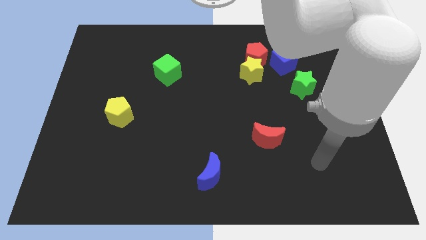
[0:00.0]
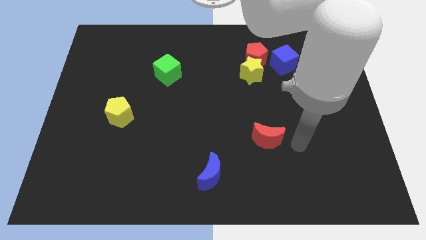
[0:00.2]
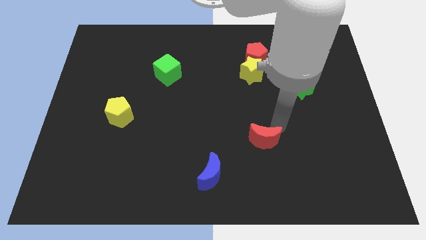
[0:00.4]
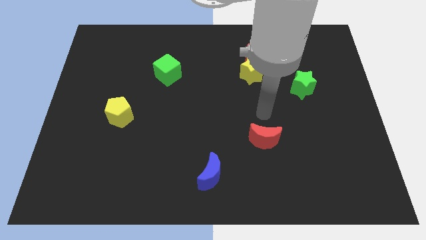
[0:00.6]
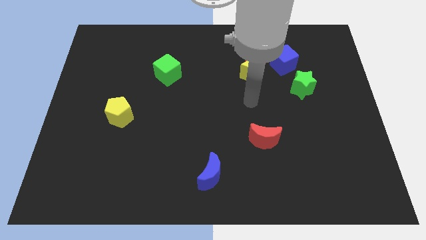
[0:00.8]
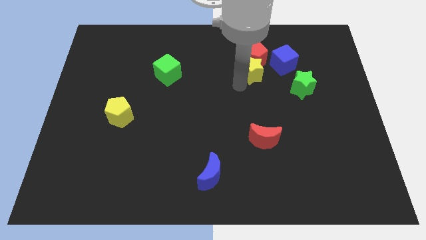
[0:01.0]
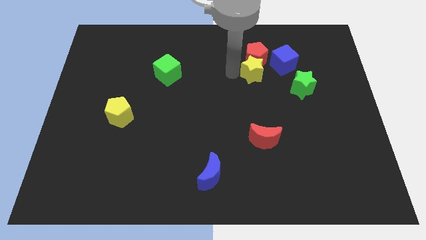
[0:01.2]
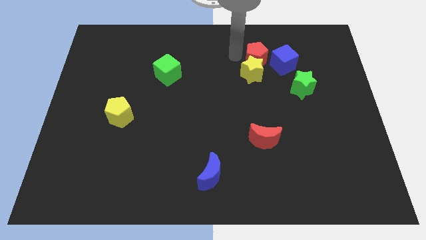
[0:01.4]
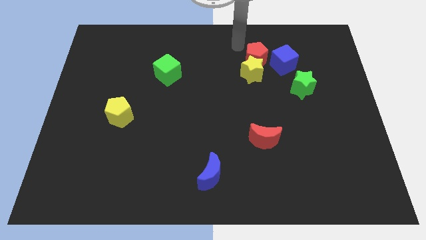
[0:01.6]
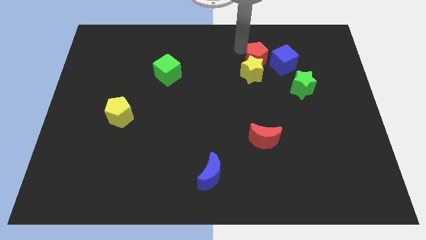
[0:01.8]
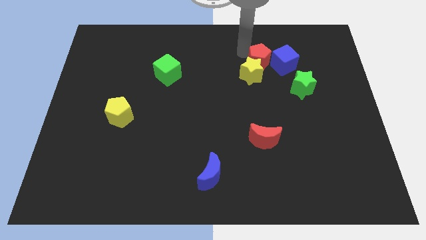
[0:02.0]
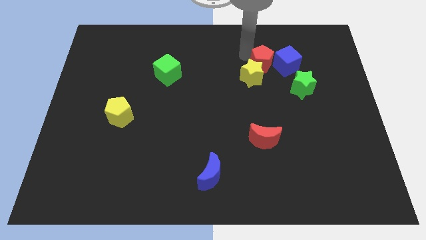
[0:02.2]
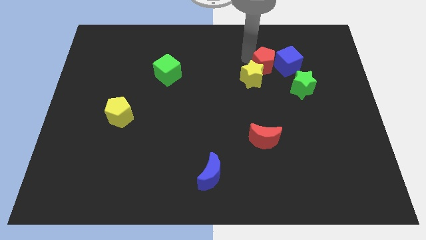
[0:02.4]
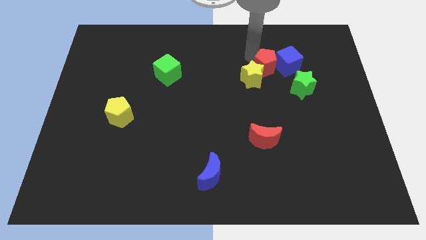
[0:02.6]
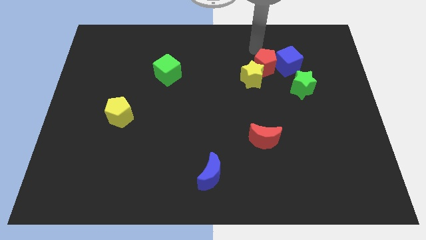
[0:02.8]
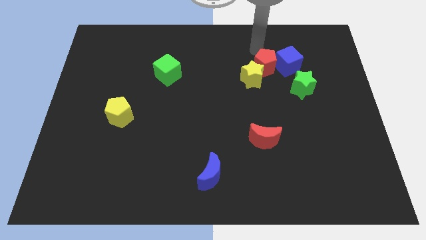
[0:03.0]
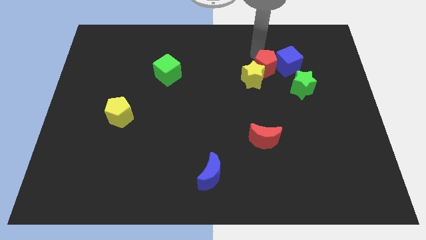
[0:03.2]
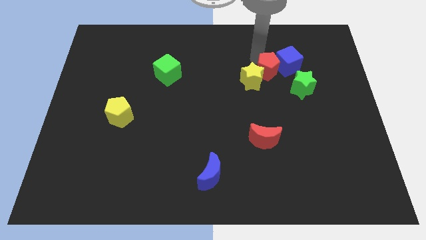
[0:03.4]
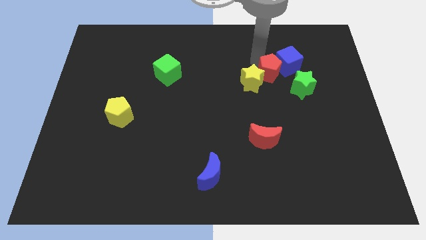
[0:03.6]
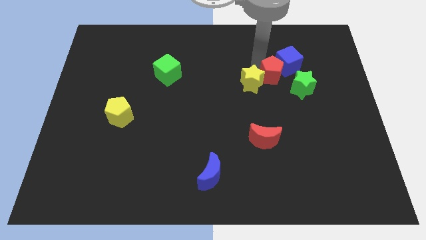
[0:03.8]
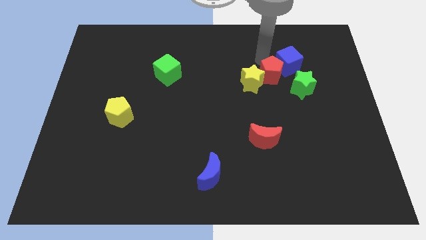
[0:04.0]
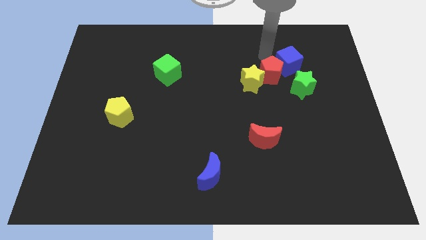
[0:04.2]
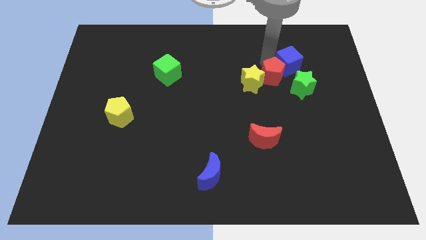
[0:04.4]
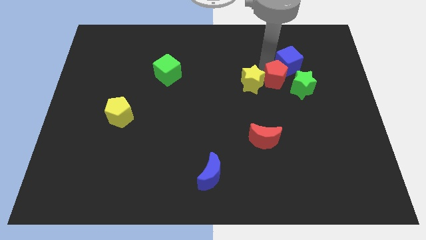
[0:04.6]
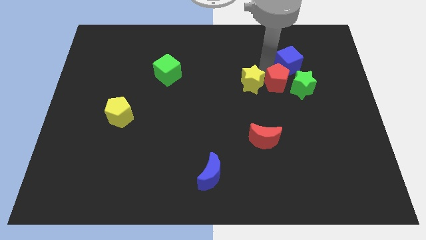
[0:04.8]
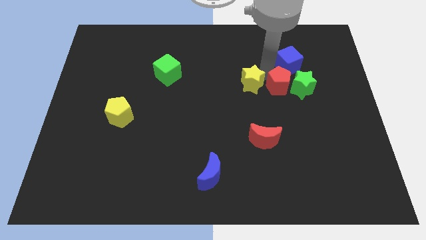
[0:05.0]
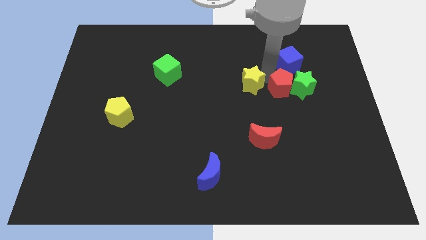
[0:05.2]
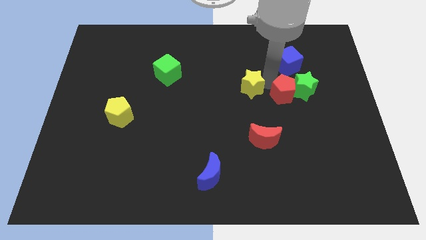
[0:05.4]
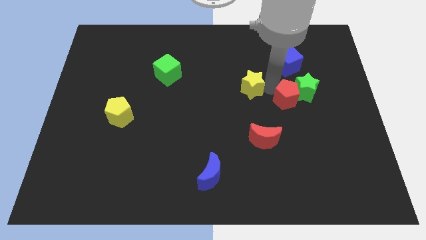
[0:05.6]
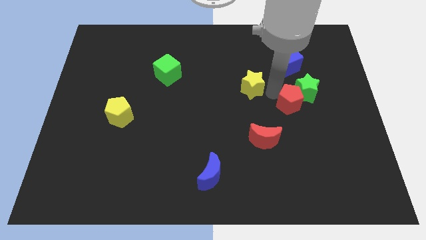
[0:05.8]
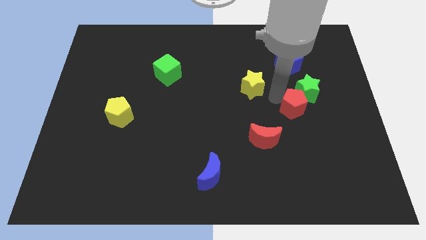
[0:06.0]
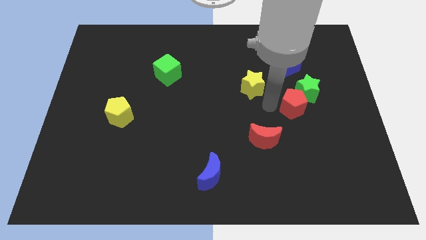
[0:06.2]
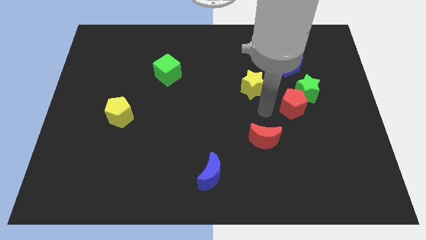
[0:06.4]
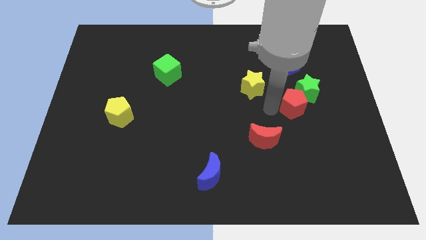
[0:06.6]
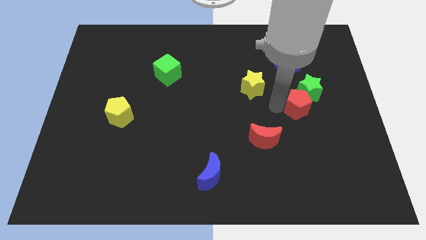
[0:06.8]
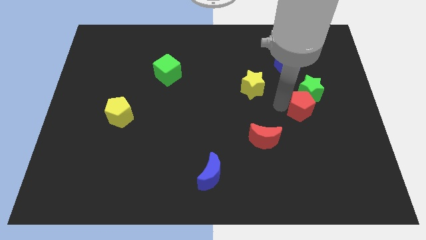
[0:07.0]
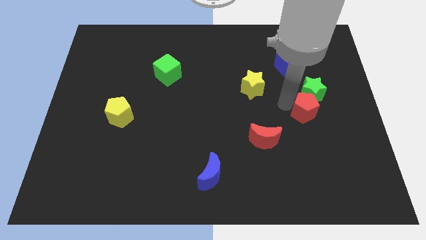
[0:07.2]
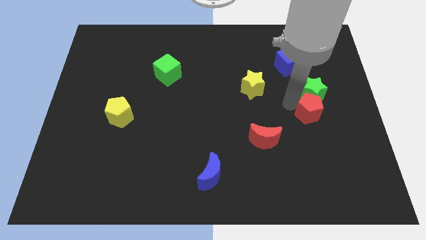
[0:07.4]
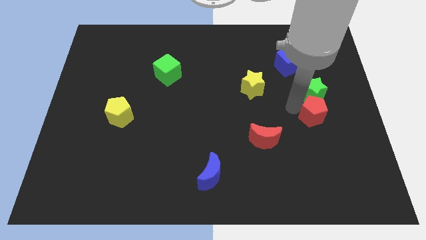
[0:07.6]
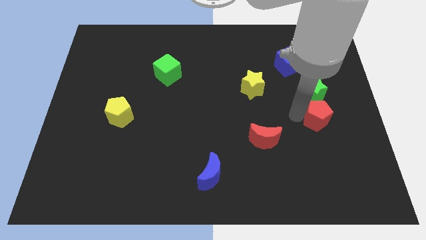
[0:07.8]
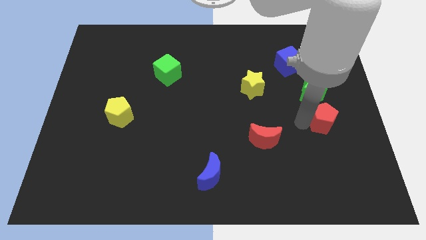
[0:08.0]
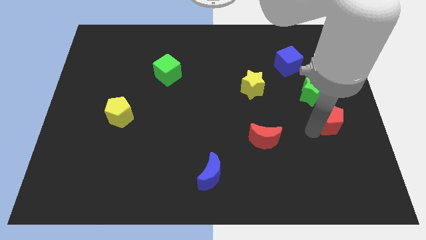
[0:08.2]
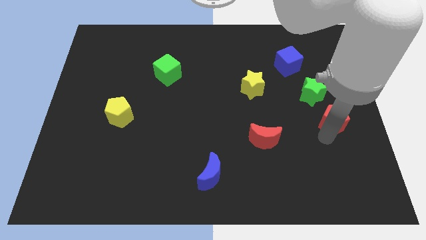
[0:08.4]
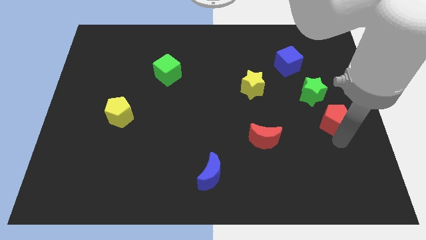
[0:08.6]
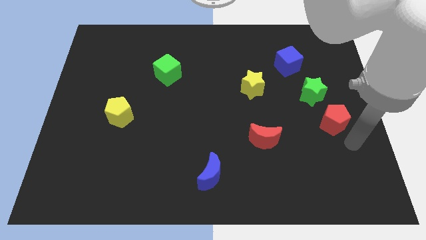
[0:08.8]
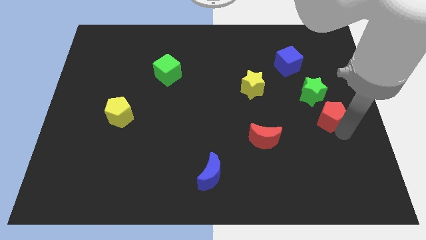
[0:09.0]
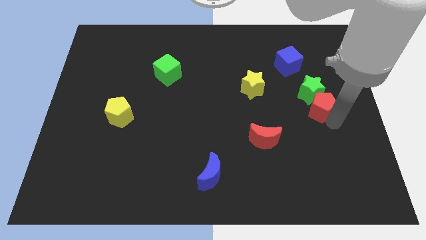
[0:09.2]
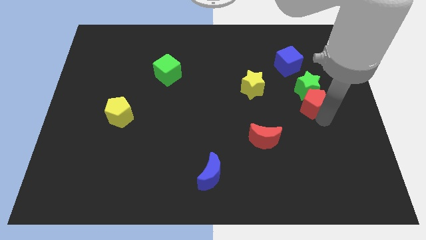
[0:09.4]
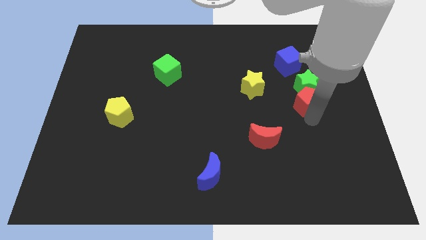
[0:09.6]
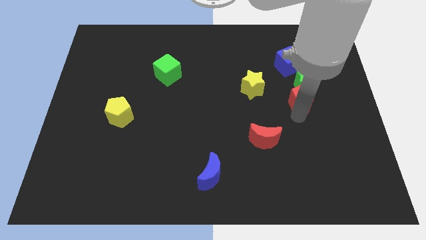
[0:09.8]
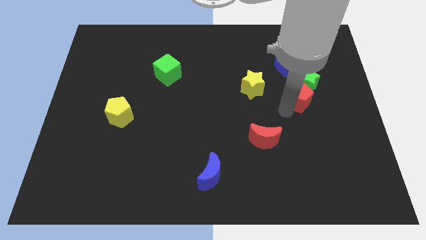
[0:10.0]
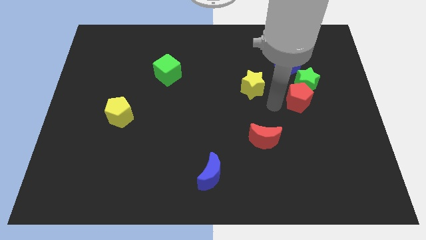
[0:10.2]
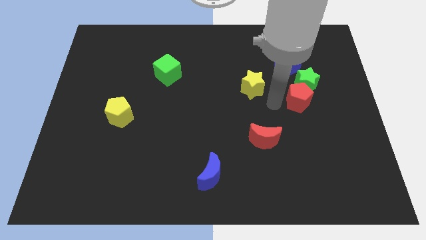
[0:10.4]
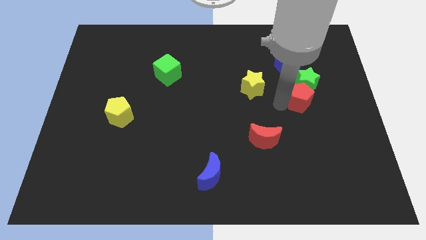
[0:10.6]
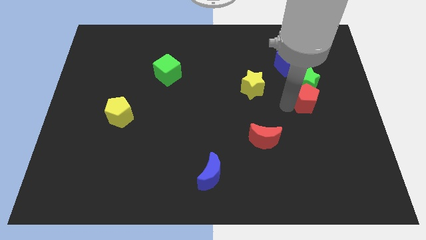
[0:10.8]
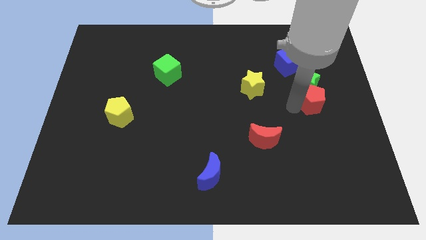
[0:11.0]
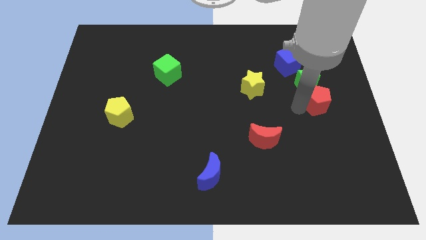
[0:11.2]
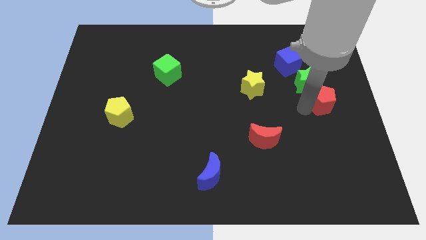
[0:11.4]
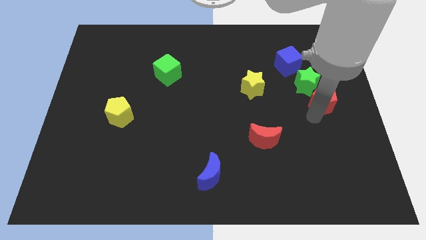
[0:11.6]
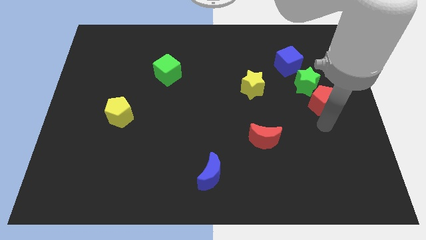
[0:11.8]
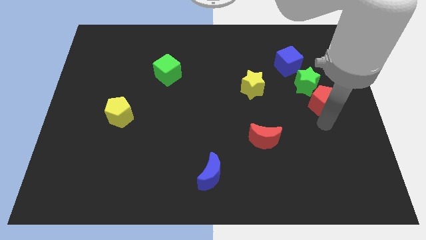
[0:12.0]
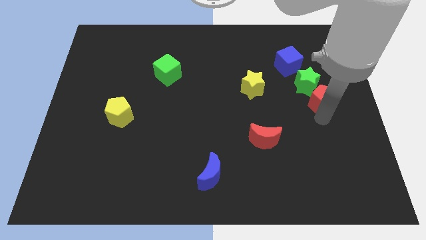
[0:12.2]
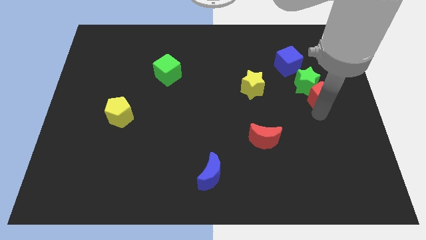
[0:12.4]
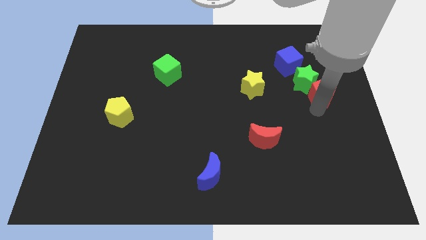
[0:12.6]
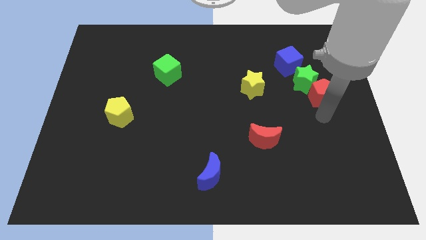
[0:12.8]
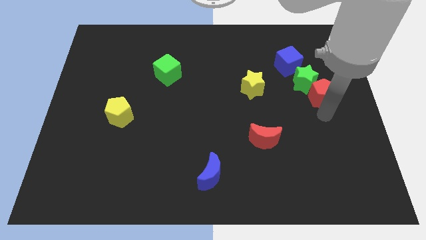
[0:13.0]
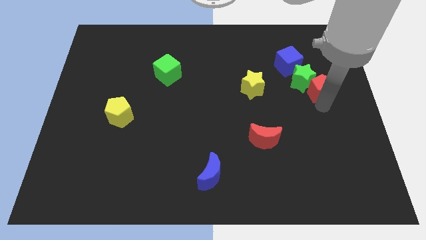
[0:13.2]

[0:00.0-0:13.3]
move the red pentagon to the bottom right of the blue cube

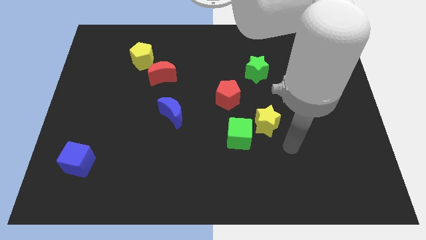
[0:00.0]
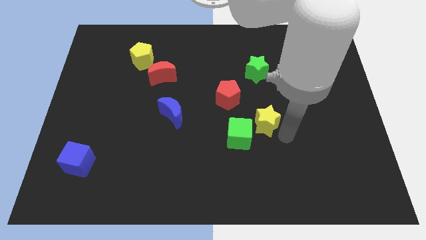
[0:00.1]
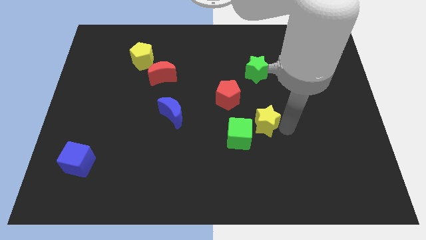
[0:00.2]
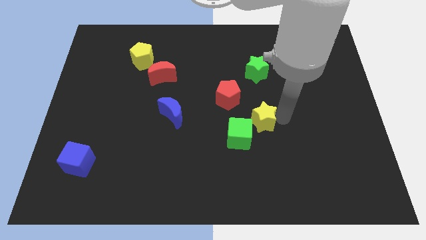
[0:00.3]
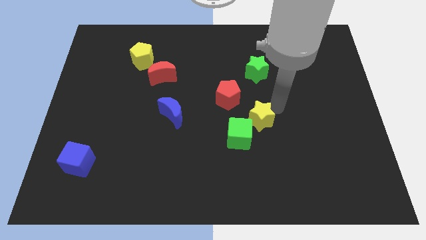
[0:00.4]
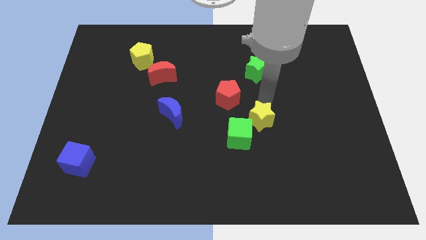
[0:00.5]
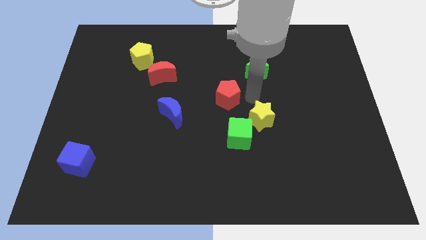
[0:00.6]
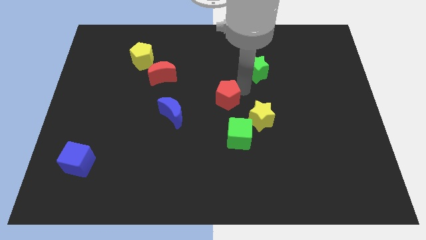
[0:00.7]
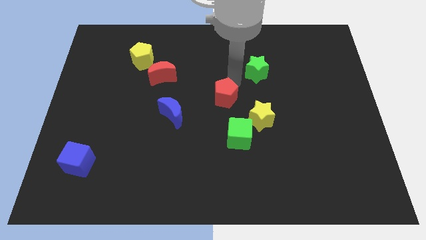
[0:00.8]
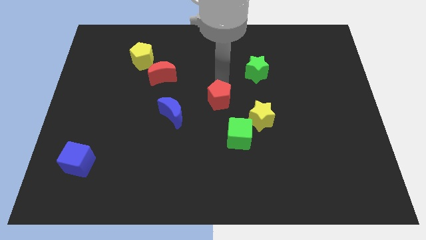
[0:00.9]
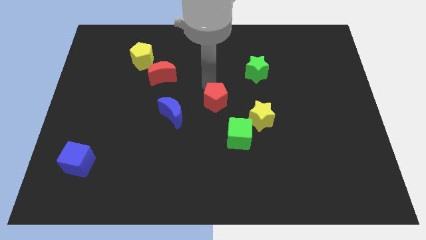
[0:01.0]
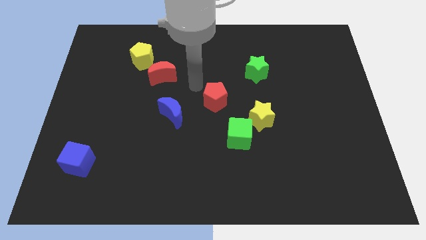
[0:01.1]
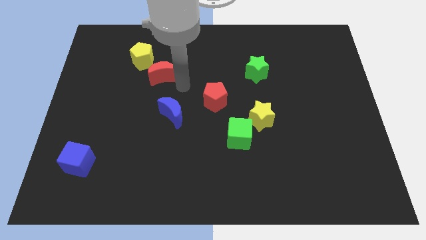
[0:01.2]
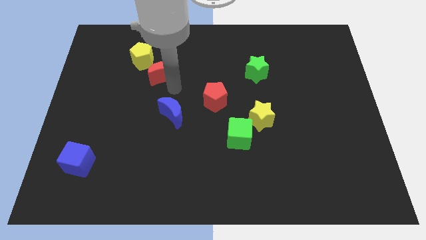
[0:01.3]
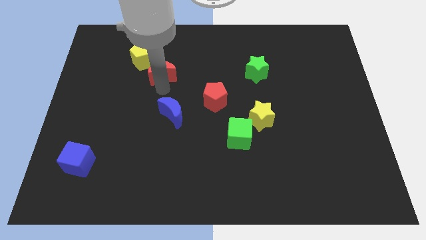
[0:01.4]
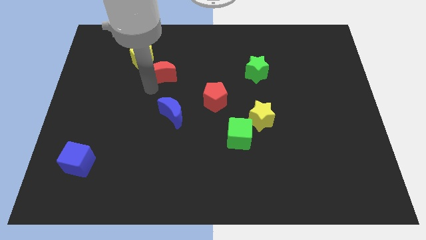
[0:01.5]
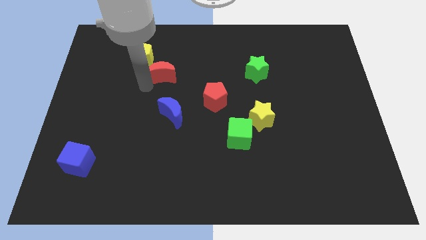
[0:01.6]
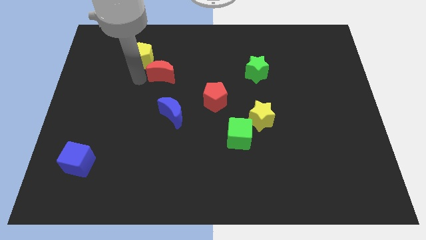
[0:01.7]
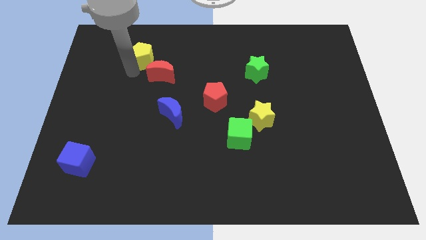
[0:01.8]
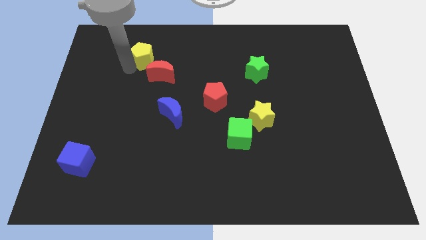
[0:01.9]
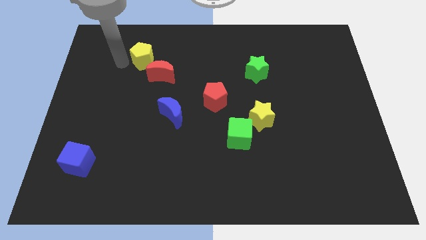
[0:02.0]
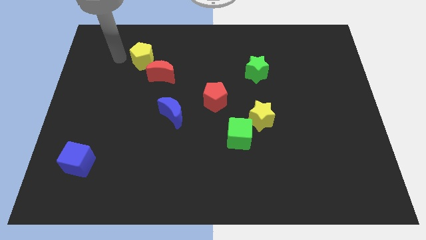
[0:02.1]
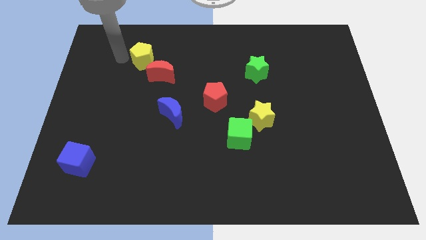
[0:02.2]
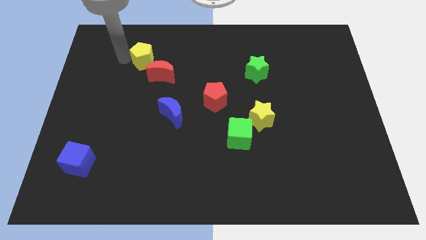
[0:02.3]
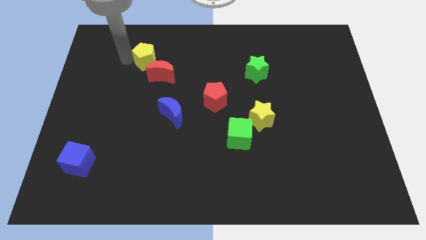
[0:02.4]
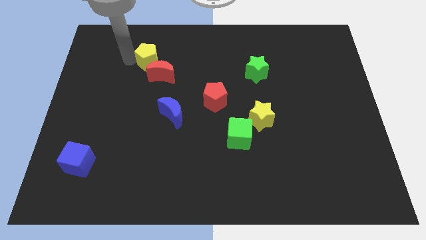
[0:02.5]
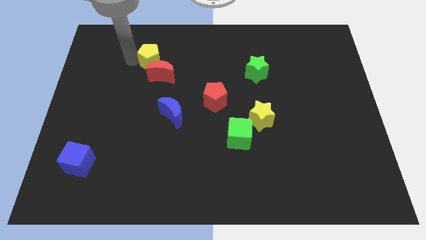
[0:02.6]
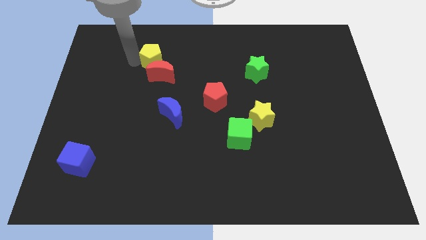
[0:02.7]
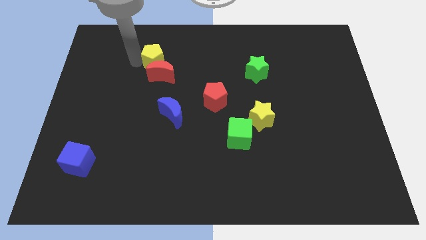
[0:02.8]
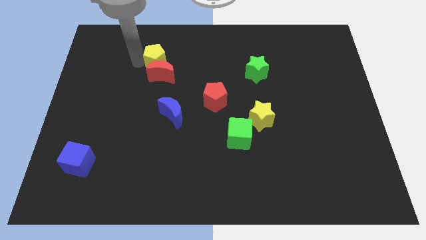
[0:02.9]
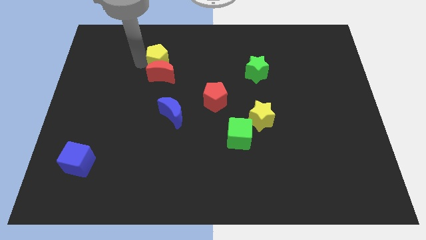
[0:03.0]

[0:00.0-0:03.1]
slide the yellow pentagon to the top right side of the red moon
